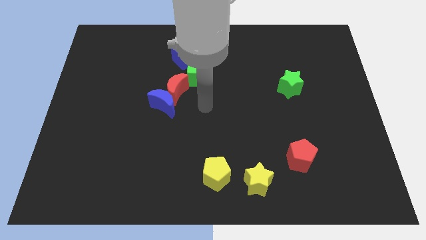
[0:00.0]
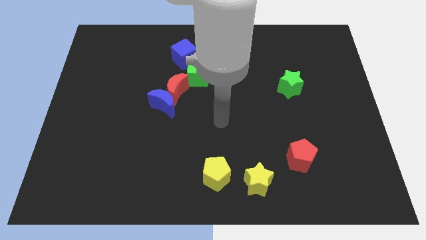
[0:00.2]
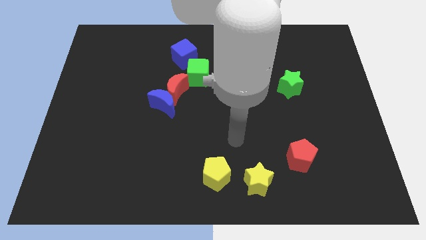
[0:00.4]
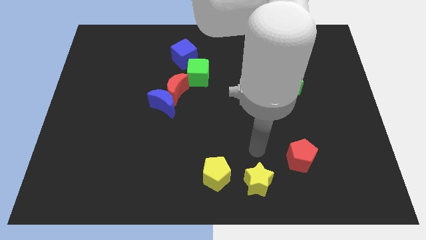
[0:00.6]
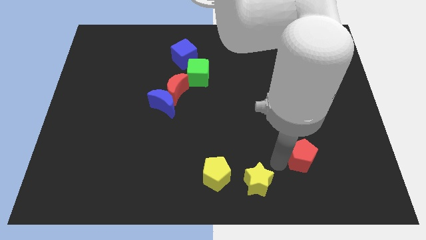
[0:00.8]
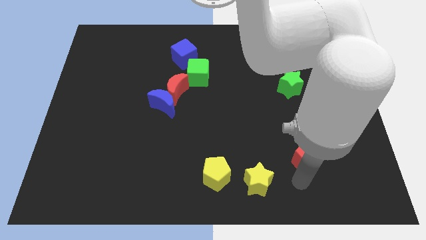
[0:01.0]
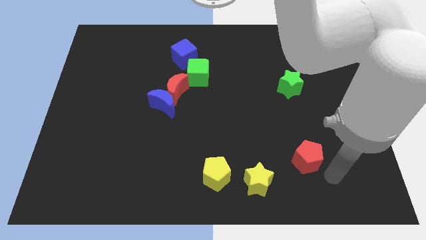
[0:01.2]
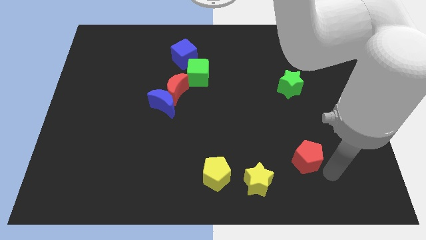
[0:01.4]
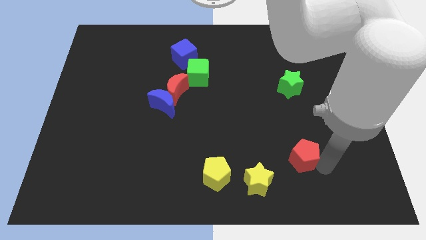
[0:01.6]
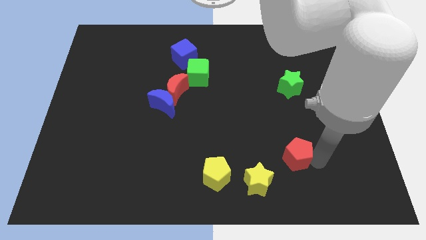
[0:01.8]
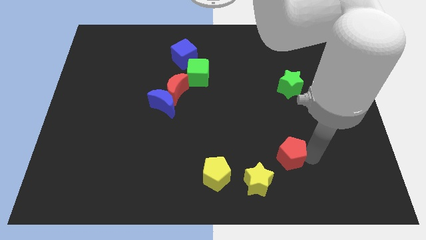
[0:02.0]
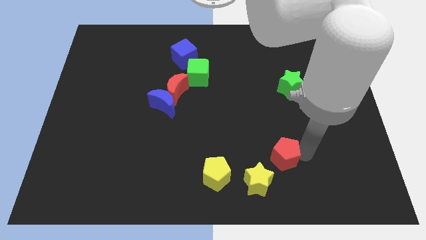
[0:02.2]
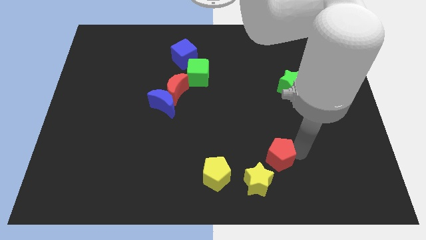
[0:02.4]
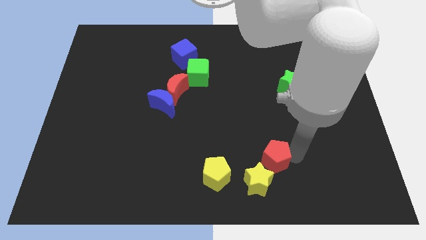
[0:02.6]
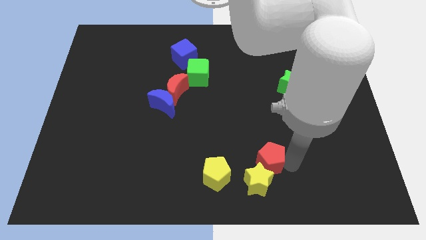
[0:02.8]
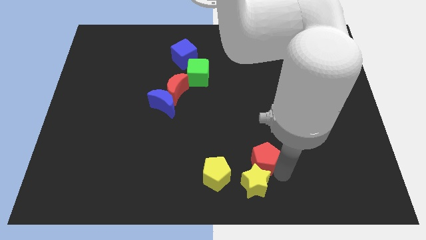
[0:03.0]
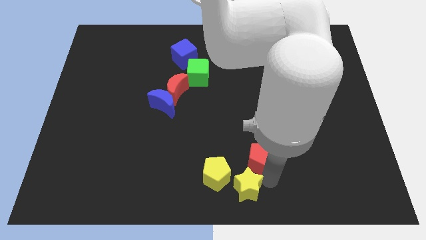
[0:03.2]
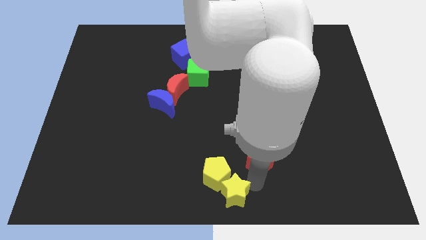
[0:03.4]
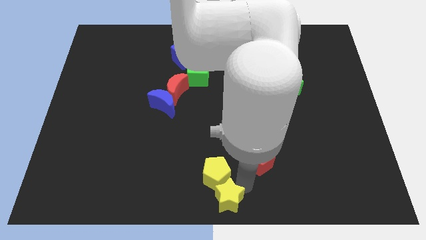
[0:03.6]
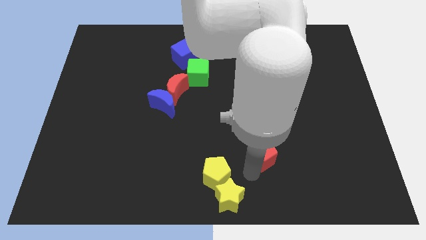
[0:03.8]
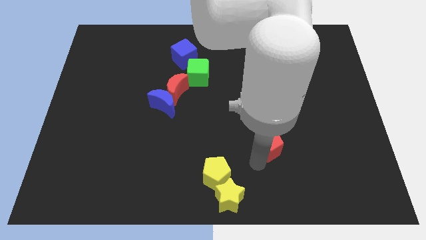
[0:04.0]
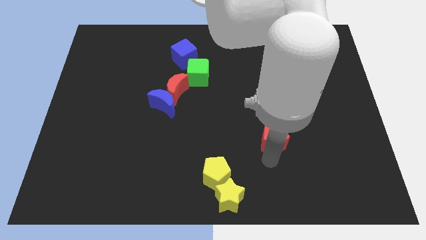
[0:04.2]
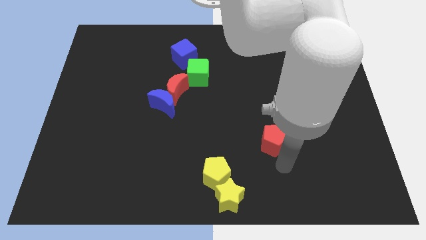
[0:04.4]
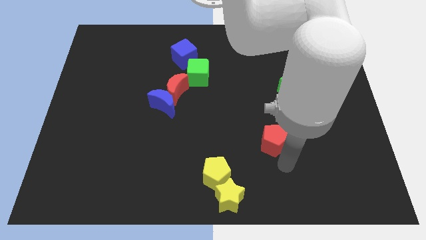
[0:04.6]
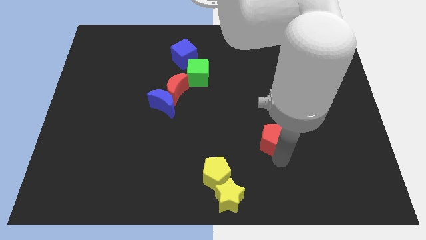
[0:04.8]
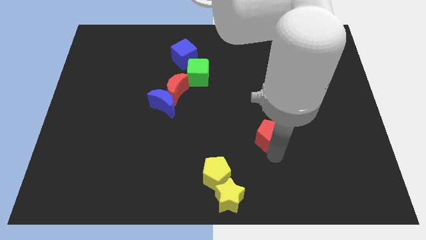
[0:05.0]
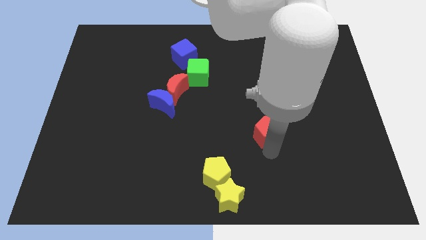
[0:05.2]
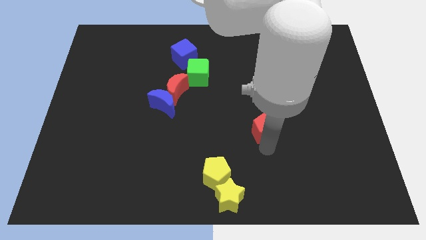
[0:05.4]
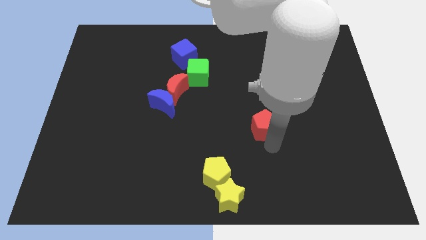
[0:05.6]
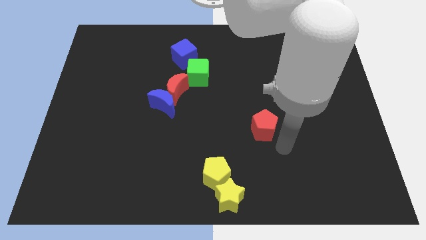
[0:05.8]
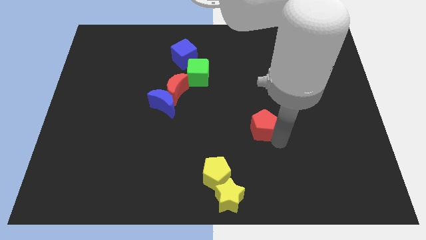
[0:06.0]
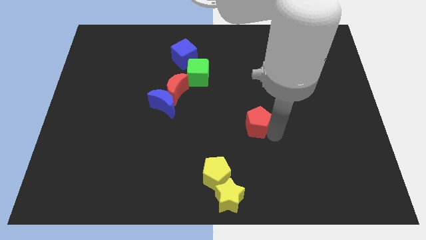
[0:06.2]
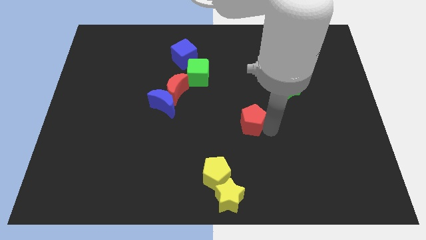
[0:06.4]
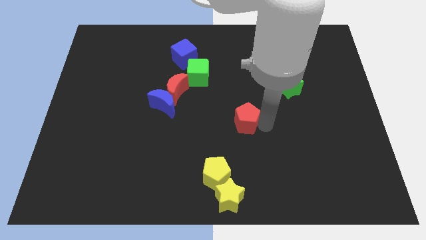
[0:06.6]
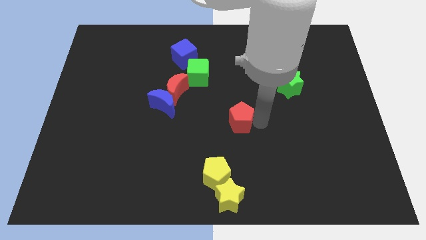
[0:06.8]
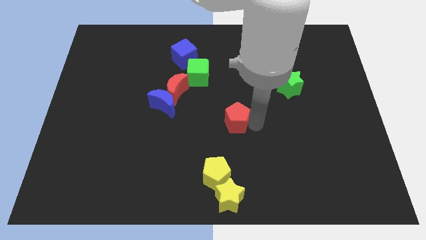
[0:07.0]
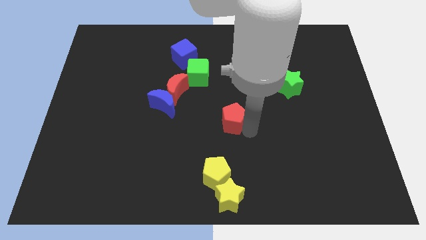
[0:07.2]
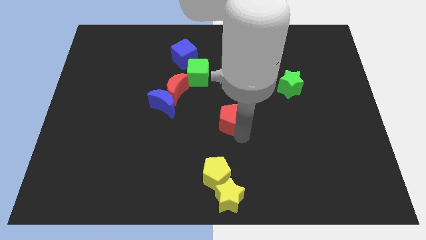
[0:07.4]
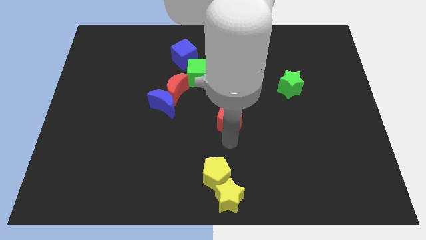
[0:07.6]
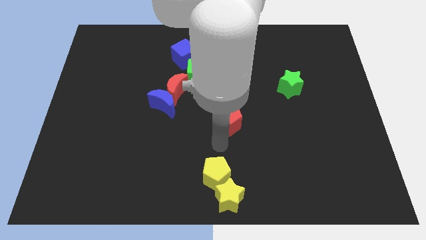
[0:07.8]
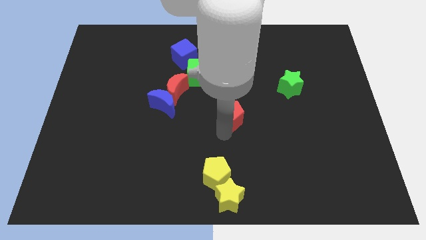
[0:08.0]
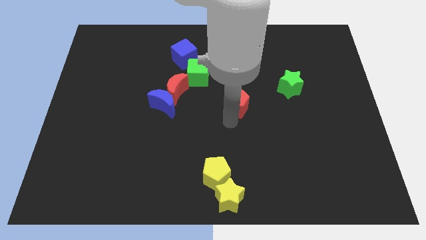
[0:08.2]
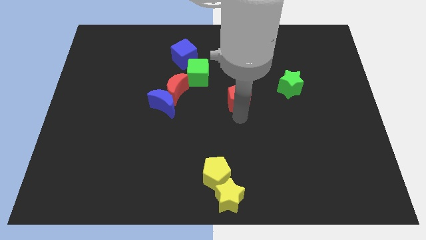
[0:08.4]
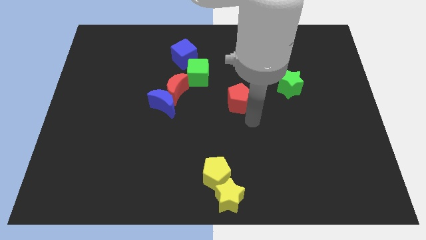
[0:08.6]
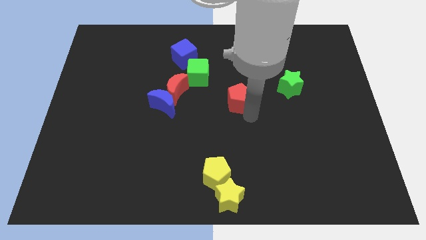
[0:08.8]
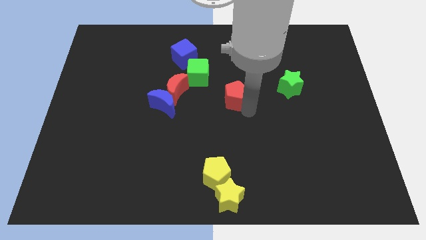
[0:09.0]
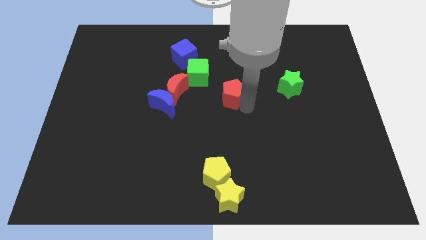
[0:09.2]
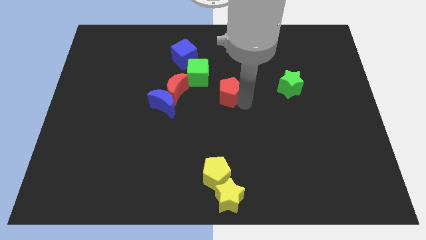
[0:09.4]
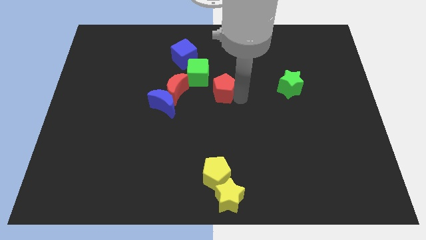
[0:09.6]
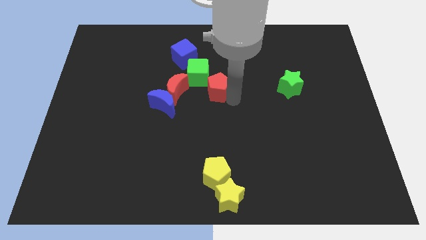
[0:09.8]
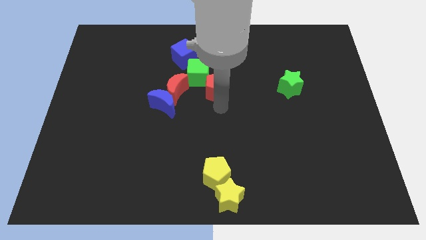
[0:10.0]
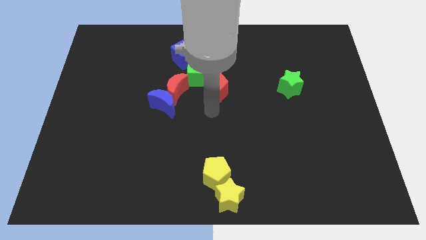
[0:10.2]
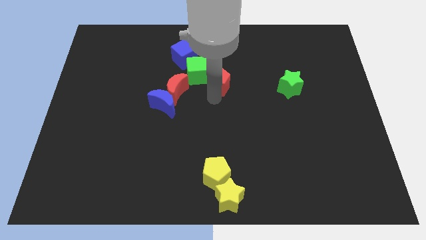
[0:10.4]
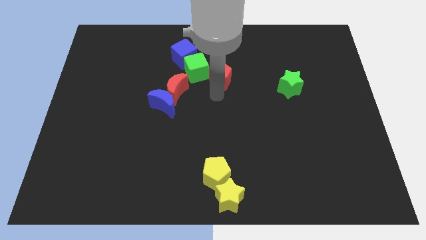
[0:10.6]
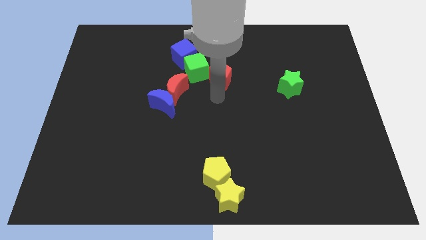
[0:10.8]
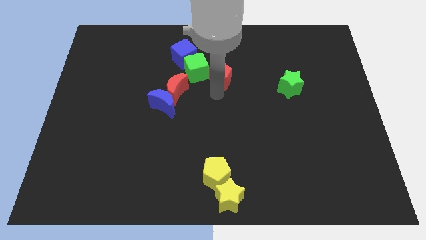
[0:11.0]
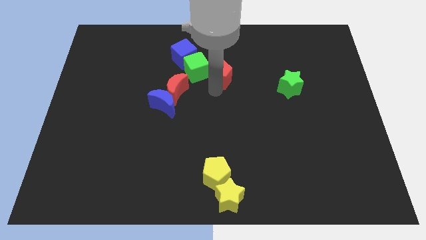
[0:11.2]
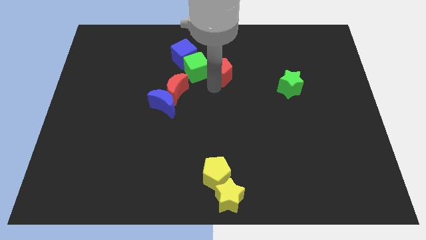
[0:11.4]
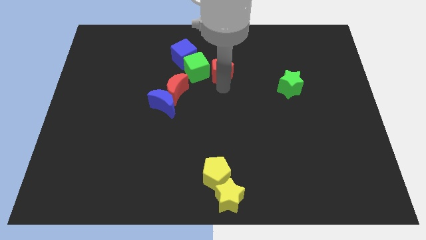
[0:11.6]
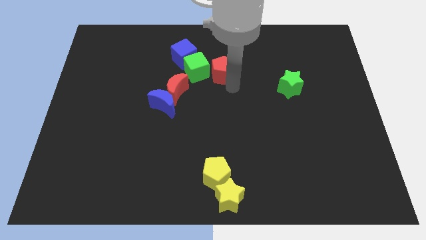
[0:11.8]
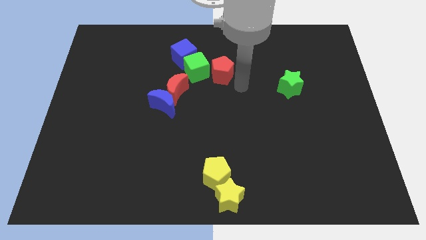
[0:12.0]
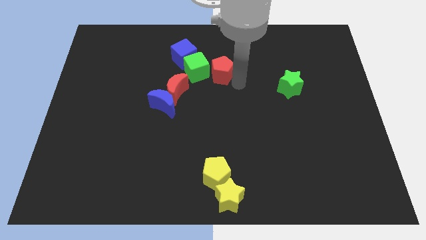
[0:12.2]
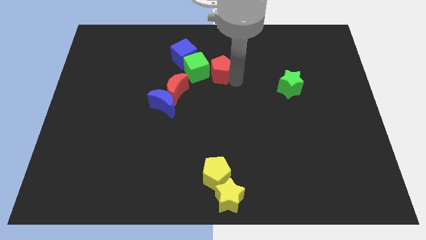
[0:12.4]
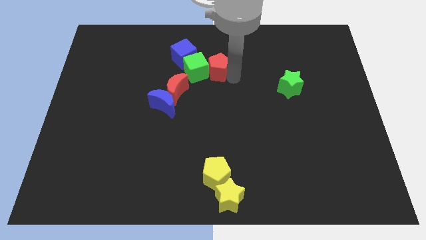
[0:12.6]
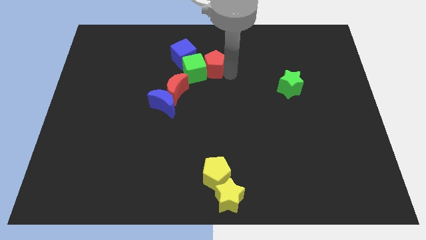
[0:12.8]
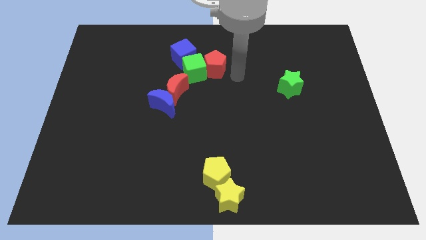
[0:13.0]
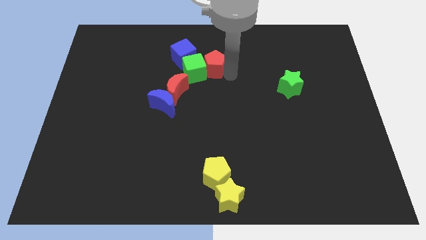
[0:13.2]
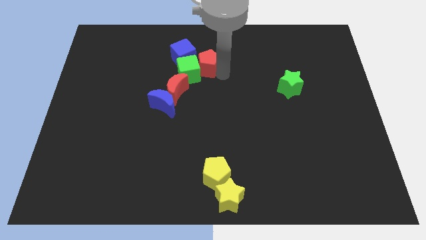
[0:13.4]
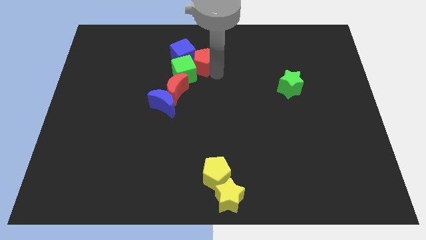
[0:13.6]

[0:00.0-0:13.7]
slide the red pentagon close to the blue cube
